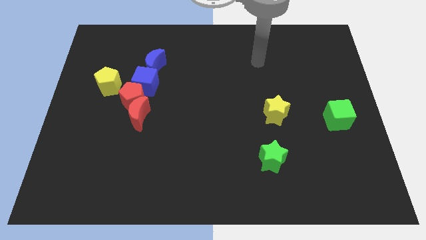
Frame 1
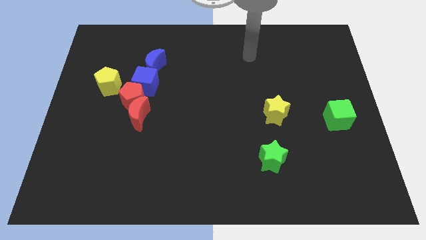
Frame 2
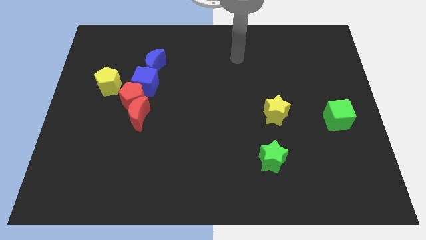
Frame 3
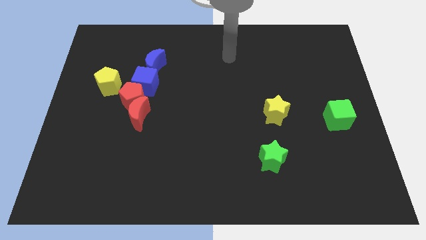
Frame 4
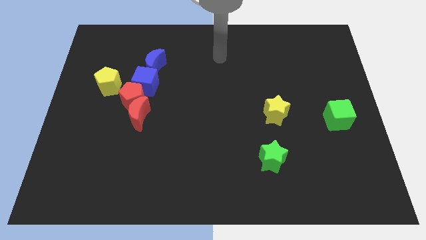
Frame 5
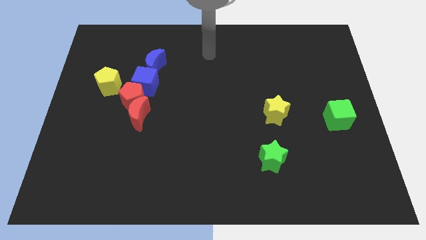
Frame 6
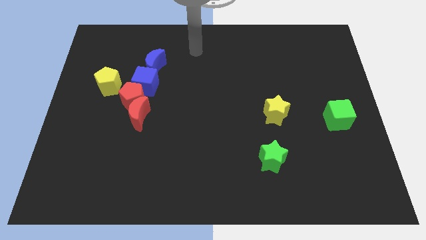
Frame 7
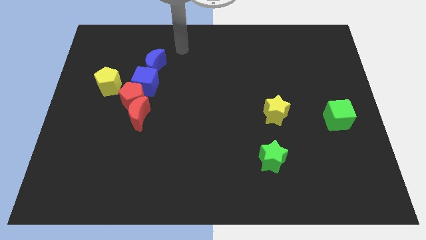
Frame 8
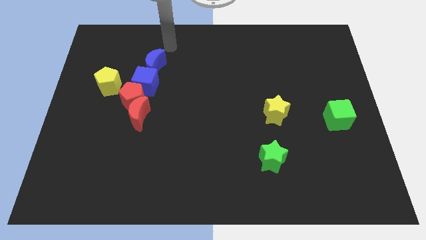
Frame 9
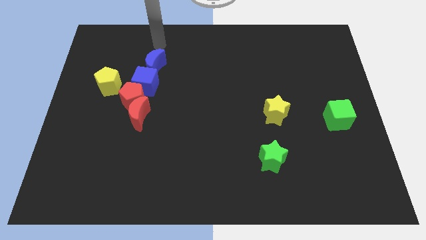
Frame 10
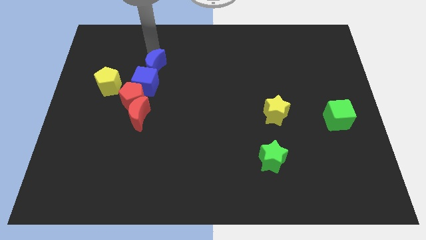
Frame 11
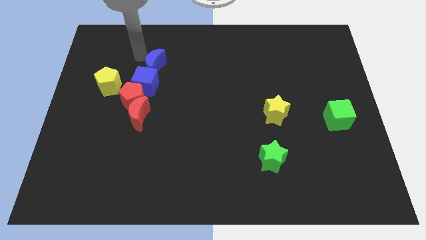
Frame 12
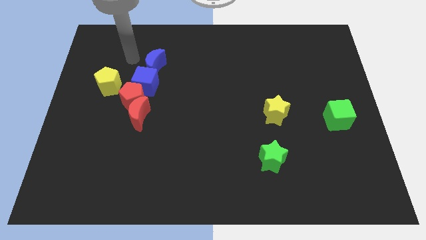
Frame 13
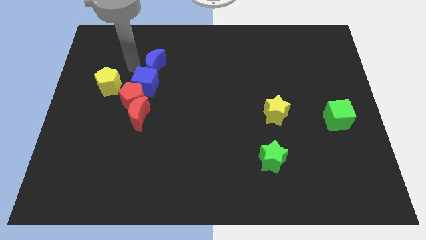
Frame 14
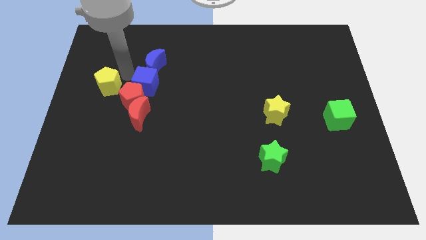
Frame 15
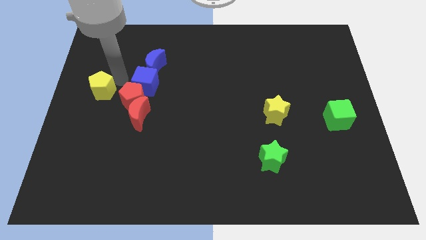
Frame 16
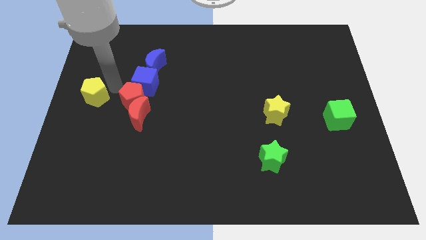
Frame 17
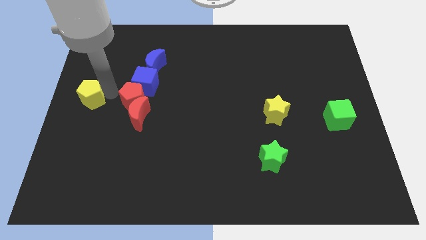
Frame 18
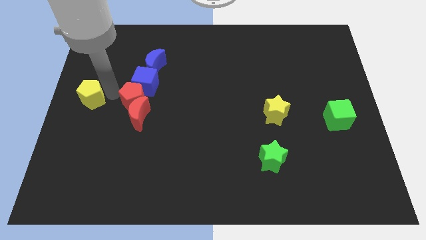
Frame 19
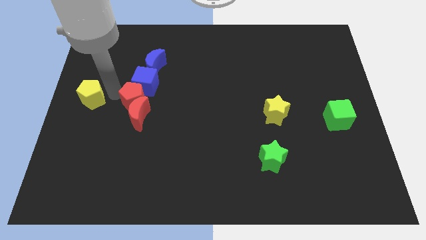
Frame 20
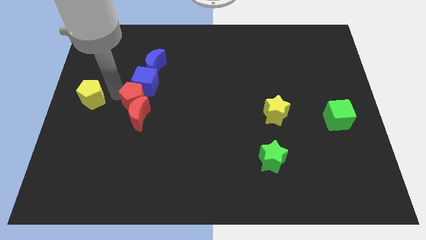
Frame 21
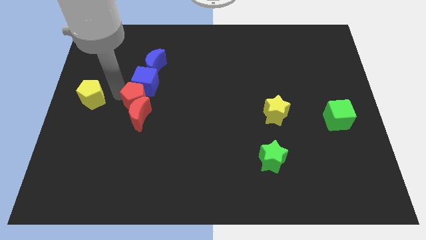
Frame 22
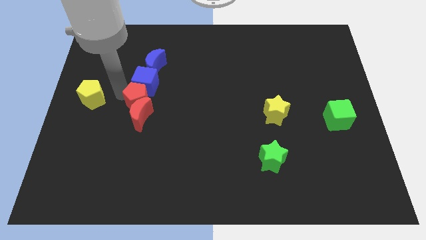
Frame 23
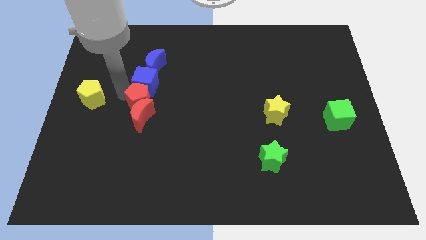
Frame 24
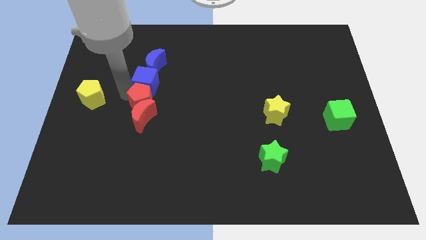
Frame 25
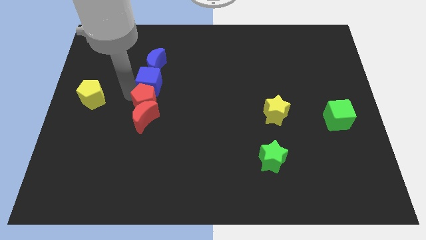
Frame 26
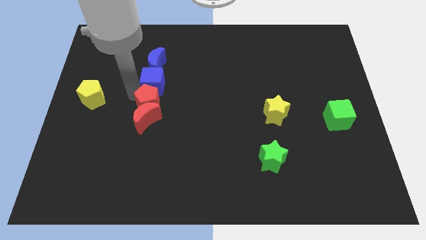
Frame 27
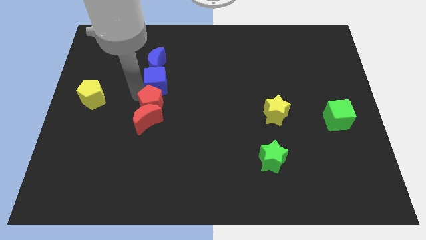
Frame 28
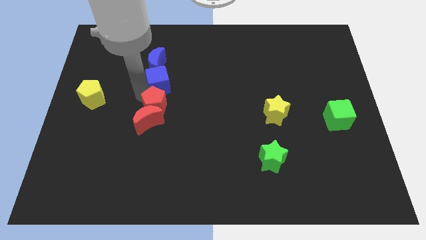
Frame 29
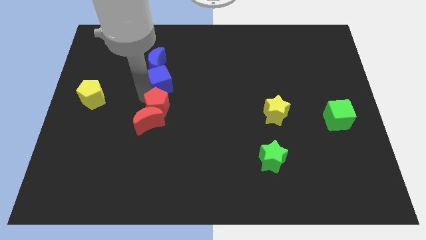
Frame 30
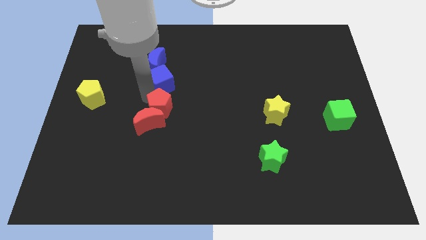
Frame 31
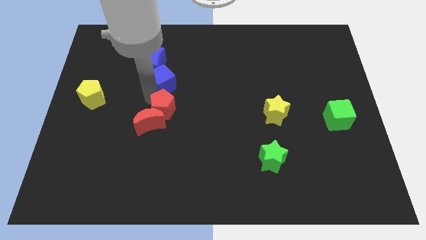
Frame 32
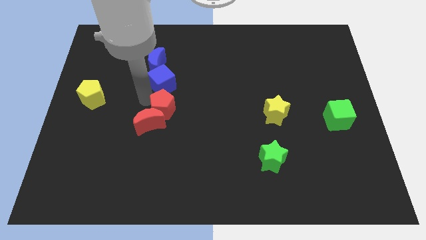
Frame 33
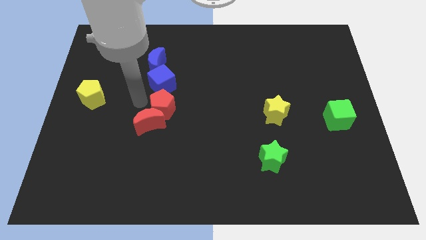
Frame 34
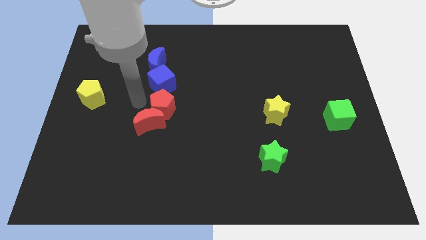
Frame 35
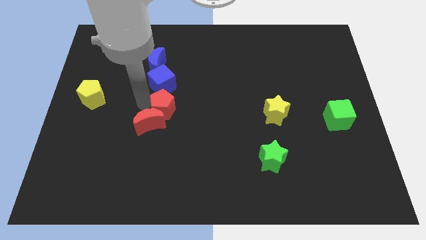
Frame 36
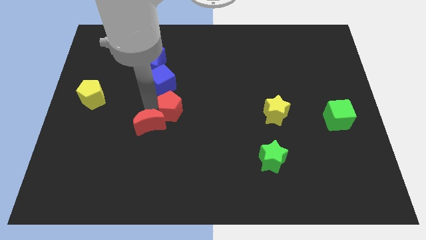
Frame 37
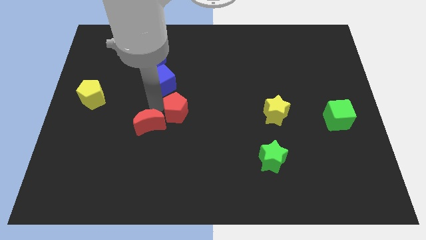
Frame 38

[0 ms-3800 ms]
pull the red pentagon apart from the red moon, blue cube, and yellow pentagon

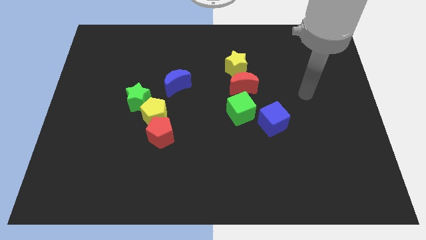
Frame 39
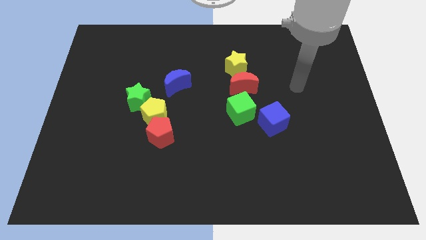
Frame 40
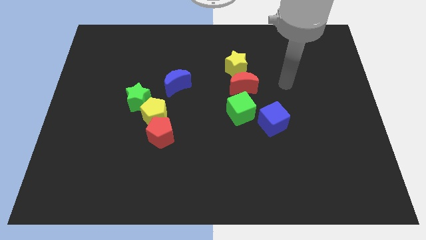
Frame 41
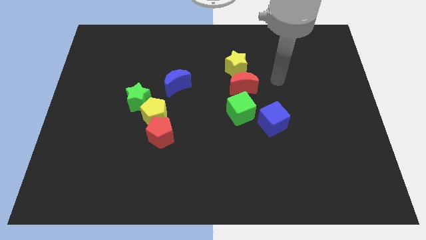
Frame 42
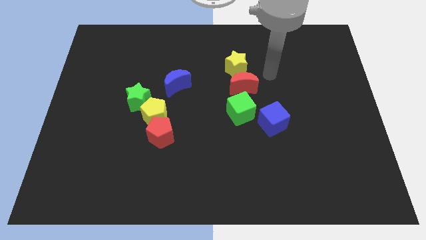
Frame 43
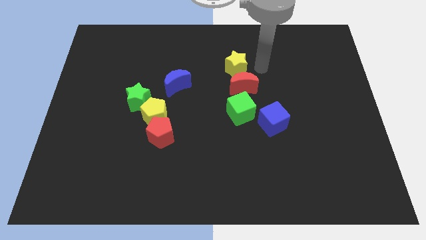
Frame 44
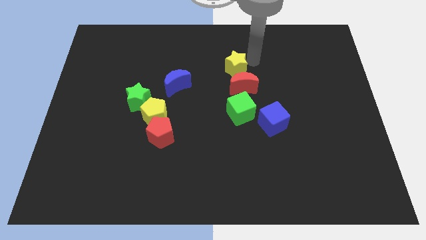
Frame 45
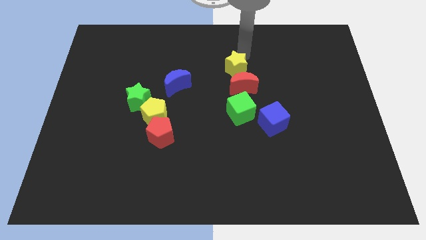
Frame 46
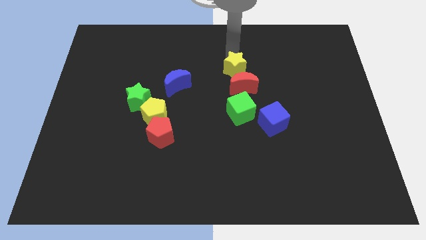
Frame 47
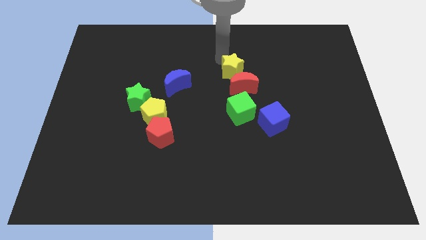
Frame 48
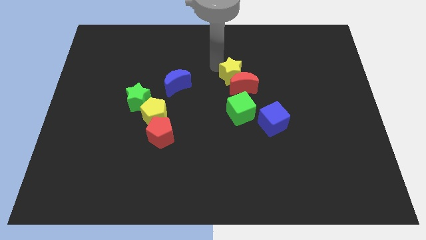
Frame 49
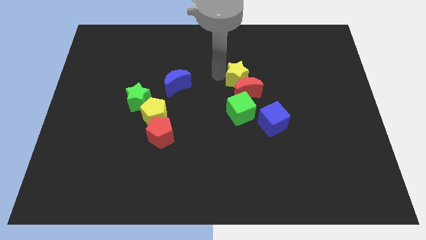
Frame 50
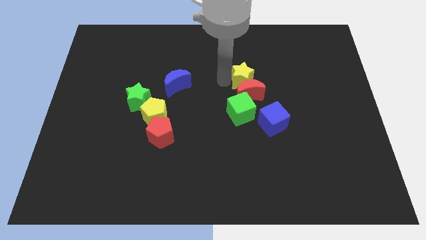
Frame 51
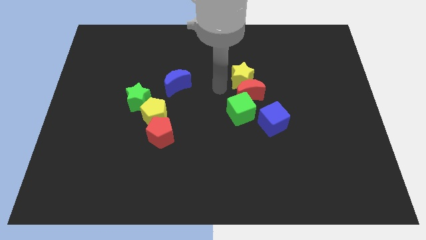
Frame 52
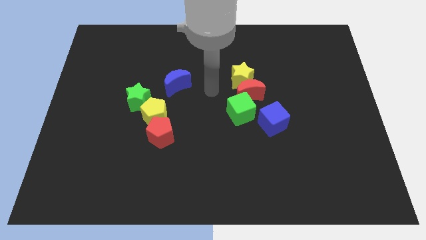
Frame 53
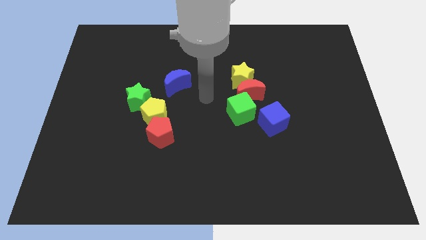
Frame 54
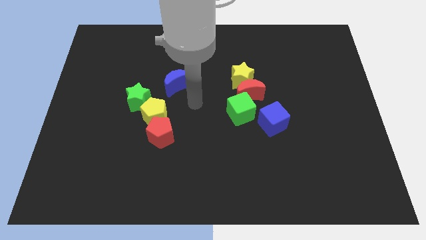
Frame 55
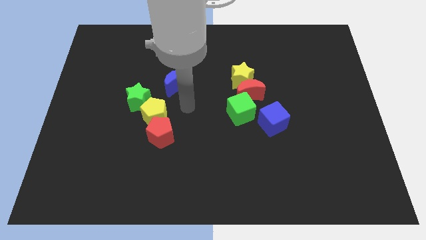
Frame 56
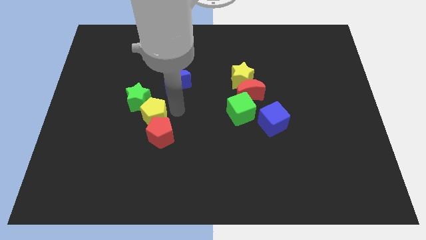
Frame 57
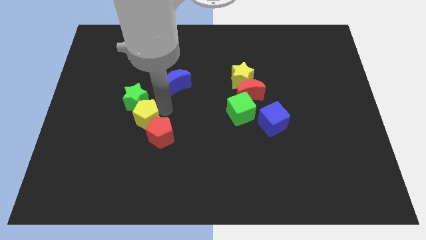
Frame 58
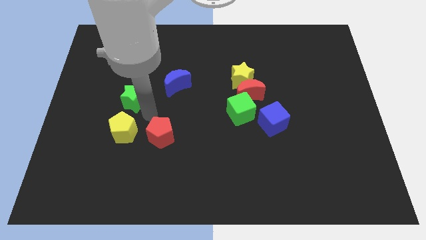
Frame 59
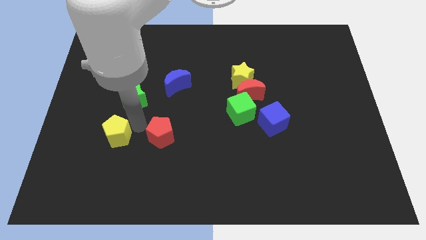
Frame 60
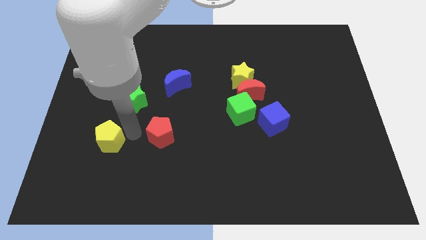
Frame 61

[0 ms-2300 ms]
separate the red pentagon from the yellow pentagon

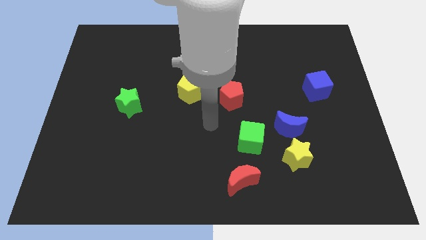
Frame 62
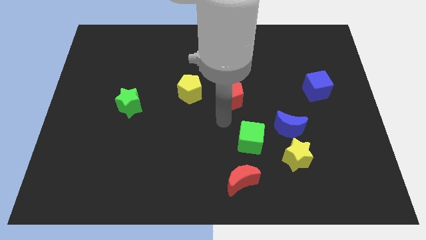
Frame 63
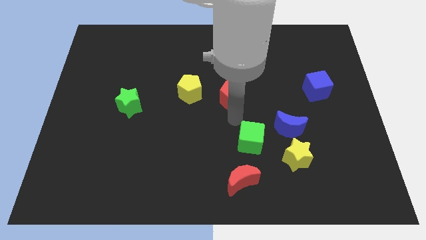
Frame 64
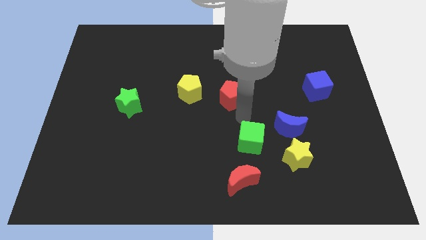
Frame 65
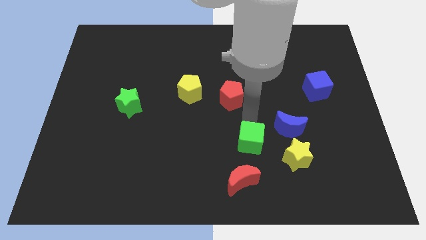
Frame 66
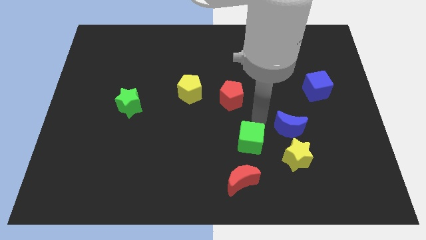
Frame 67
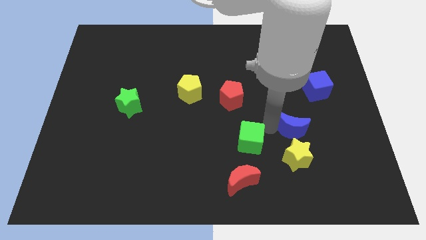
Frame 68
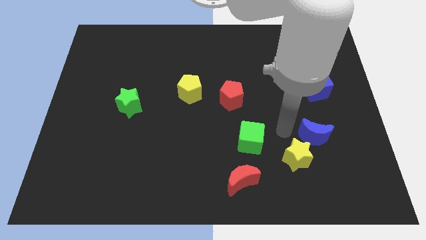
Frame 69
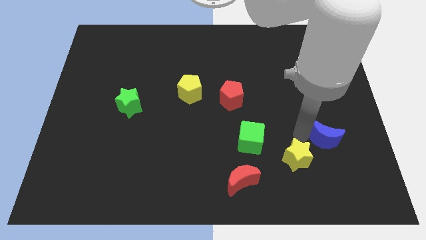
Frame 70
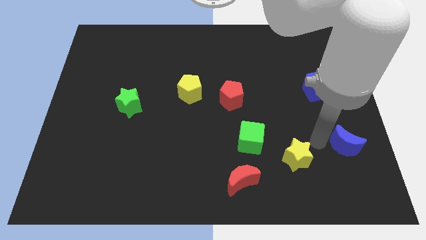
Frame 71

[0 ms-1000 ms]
move the yellow star away from the blue moon

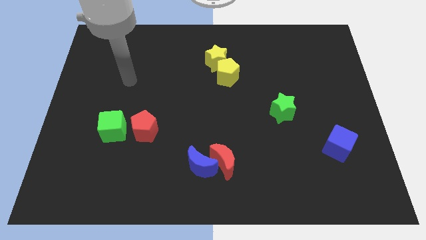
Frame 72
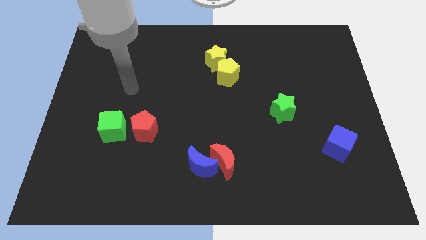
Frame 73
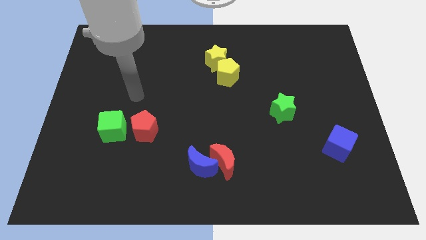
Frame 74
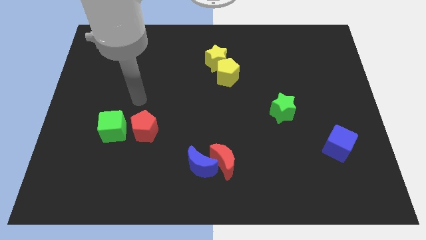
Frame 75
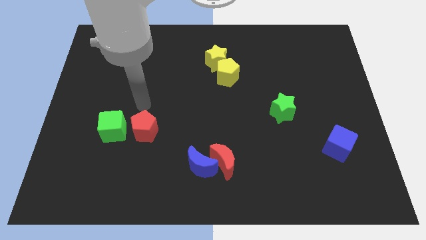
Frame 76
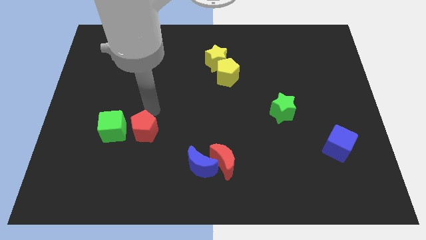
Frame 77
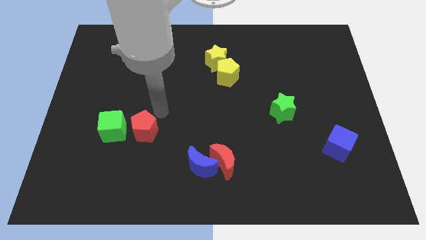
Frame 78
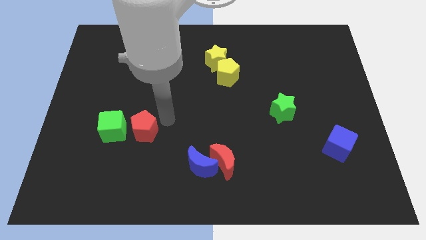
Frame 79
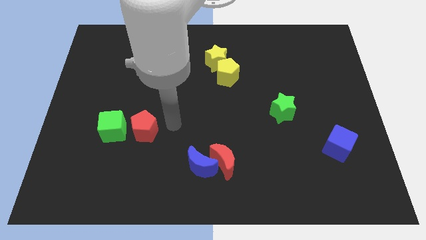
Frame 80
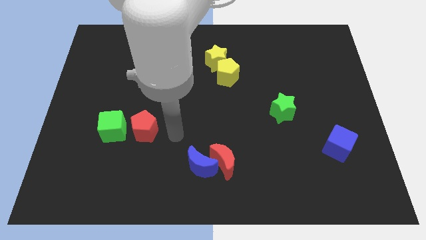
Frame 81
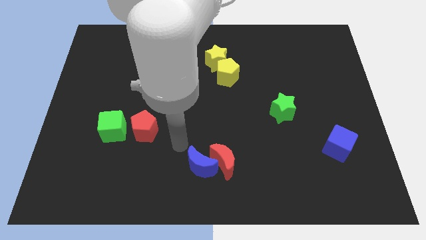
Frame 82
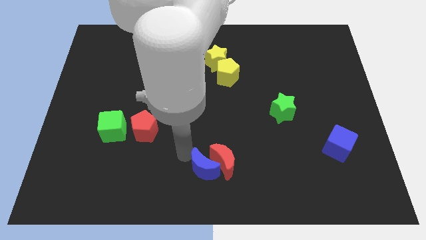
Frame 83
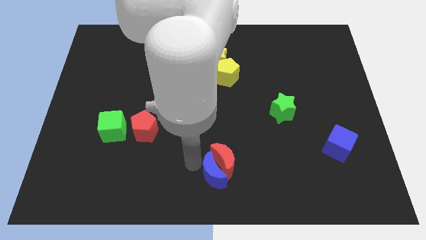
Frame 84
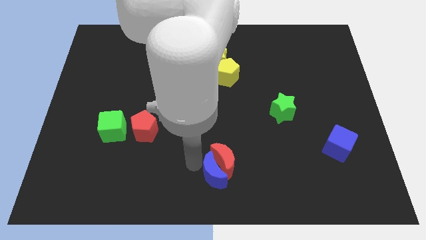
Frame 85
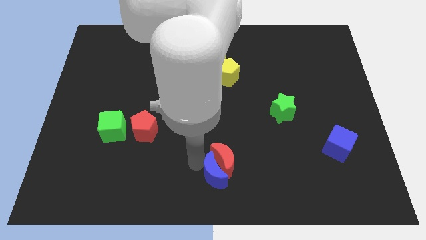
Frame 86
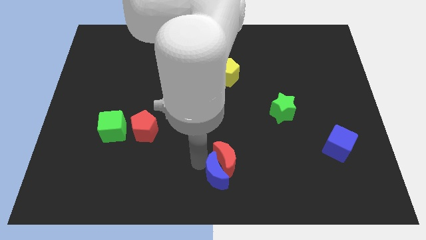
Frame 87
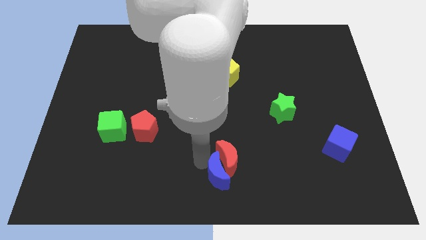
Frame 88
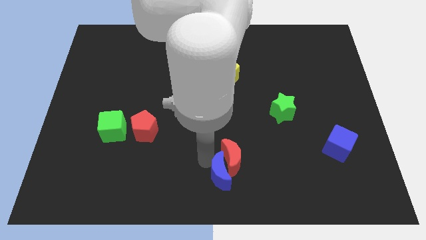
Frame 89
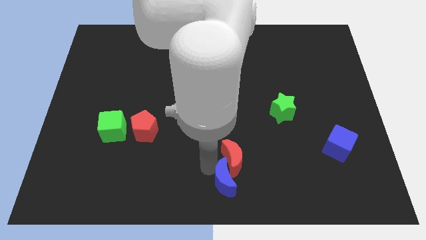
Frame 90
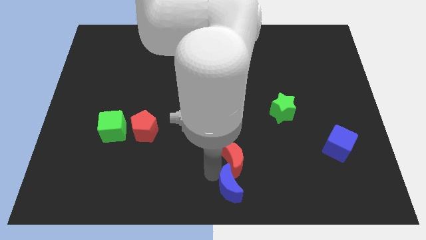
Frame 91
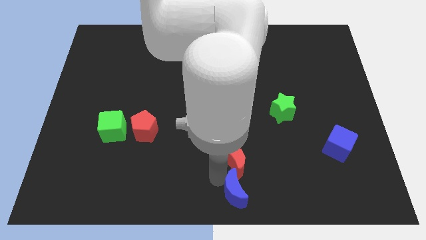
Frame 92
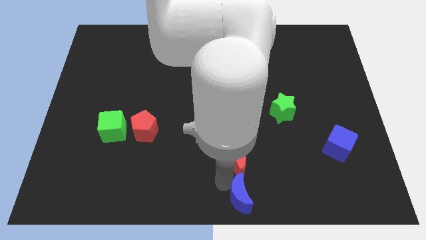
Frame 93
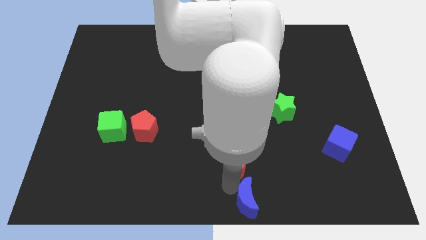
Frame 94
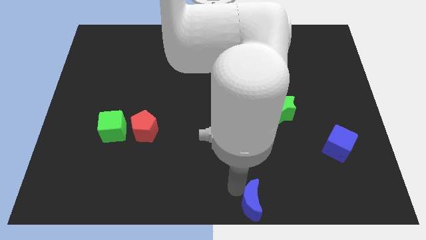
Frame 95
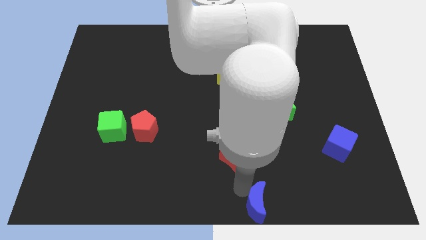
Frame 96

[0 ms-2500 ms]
pull the red moon apart from the blue moon

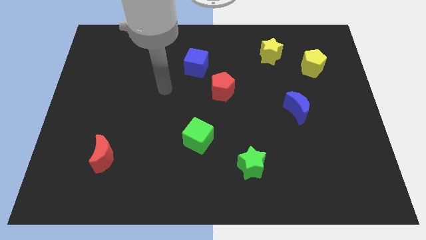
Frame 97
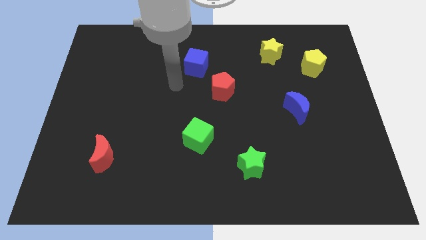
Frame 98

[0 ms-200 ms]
move the red pentagon away from the blue cube
